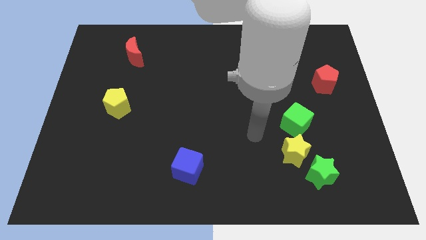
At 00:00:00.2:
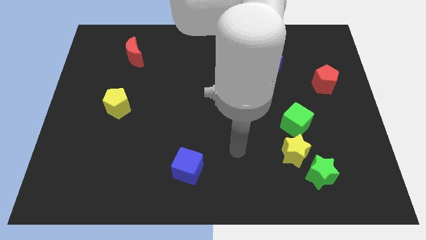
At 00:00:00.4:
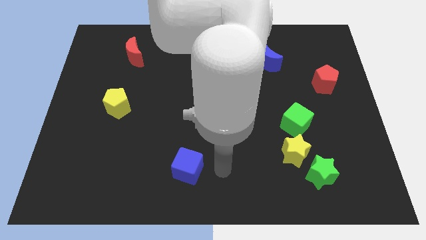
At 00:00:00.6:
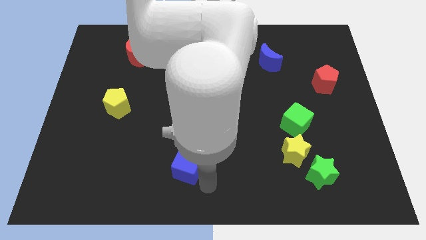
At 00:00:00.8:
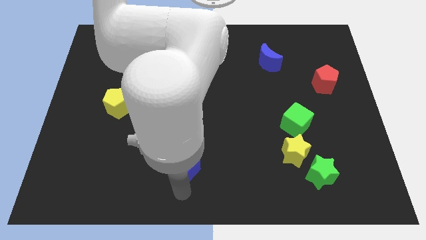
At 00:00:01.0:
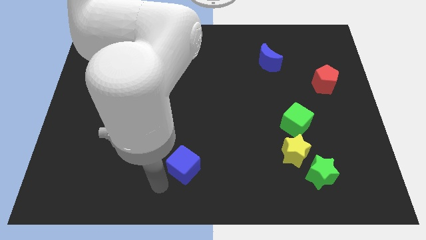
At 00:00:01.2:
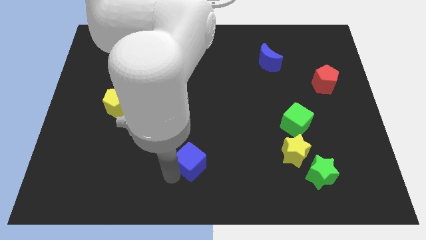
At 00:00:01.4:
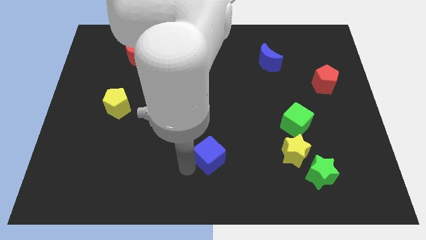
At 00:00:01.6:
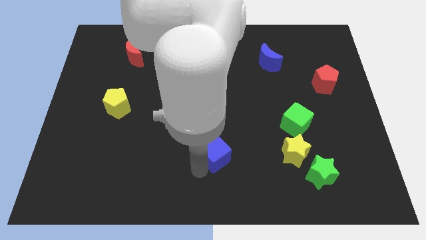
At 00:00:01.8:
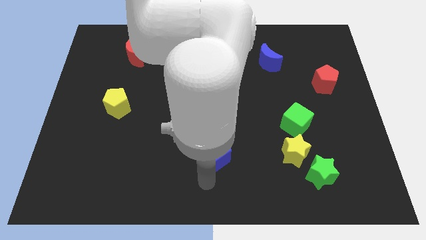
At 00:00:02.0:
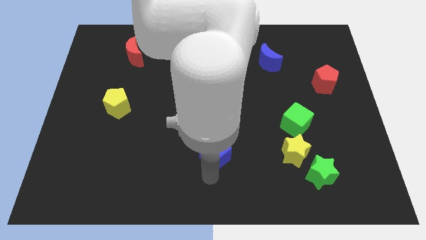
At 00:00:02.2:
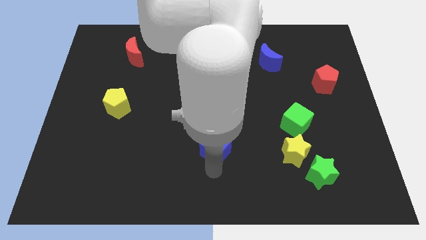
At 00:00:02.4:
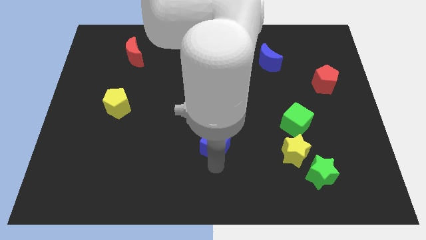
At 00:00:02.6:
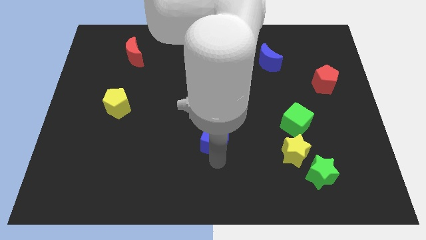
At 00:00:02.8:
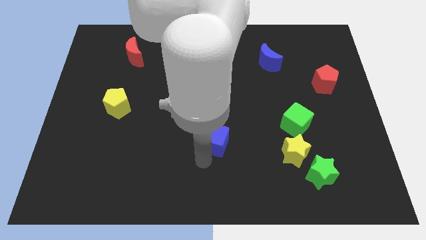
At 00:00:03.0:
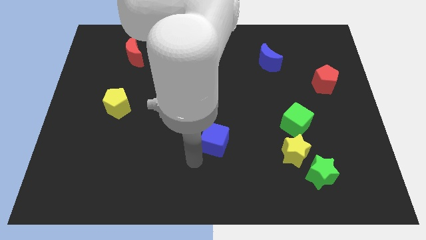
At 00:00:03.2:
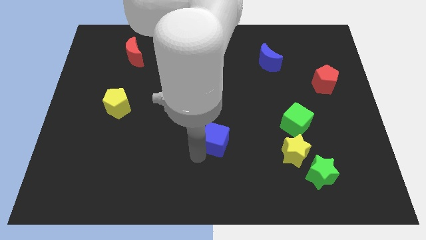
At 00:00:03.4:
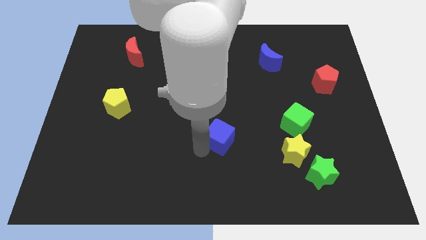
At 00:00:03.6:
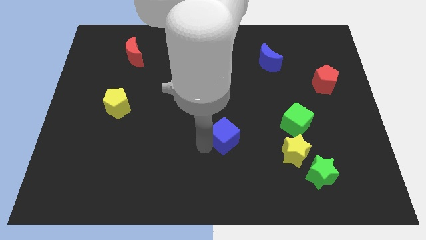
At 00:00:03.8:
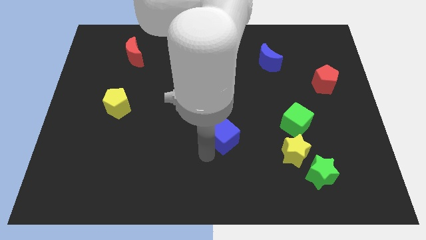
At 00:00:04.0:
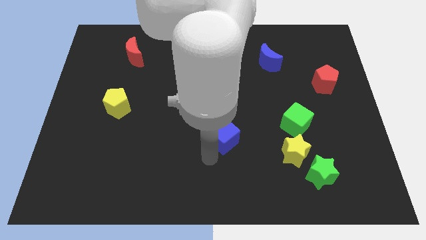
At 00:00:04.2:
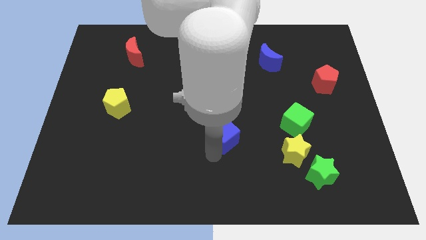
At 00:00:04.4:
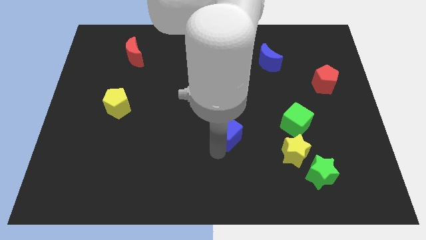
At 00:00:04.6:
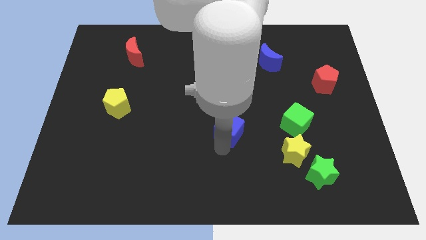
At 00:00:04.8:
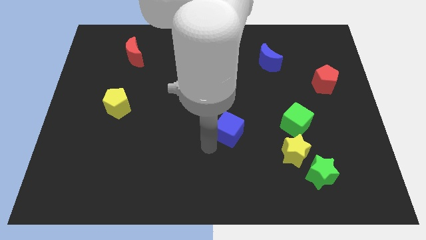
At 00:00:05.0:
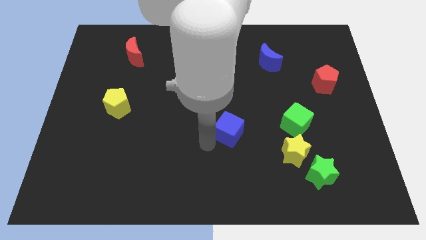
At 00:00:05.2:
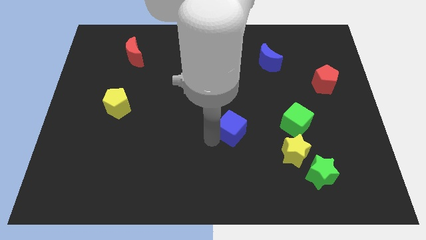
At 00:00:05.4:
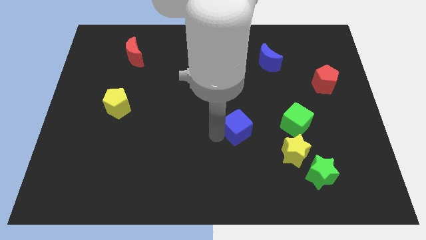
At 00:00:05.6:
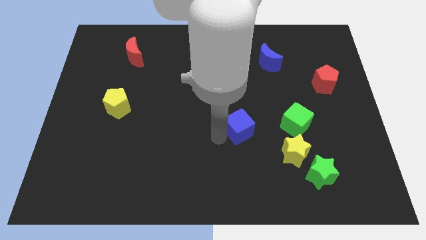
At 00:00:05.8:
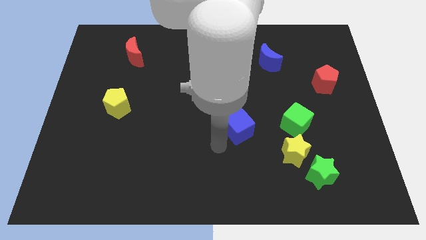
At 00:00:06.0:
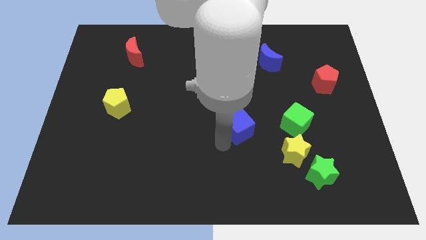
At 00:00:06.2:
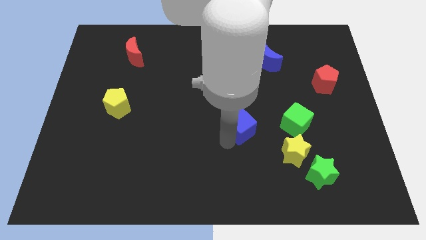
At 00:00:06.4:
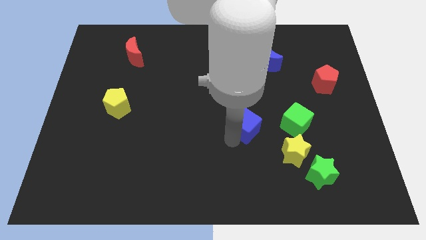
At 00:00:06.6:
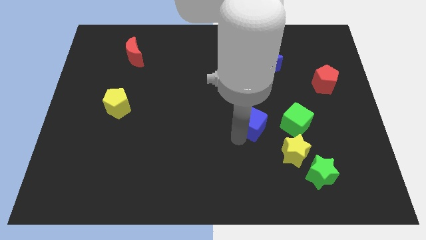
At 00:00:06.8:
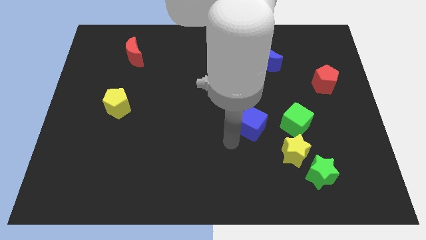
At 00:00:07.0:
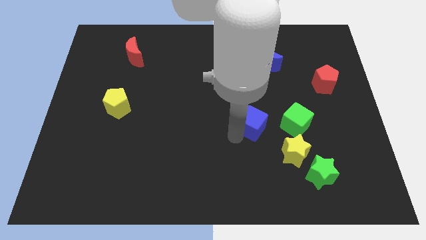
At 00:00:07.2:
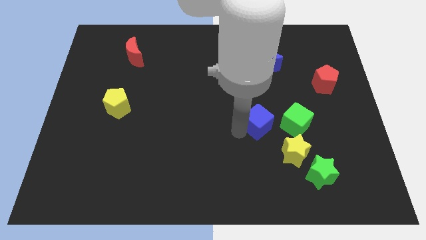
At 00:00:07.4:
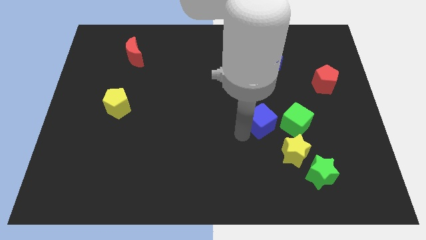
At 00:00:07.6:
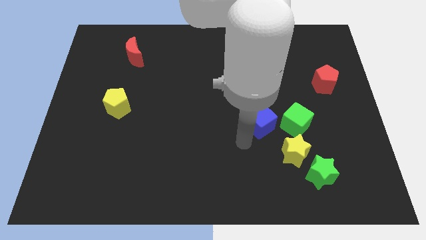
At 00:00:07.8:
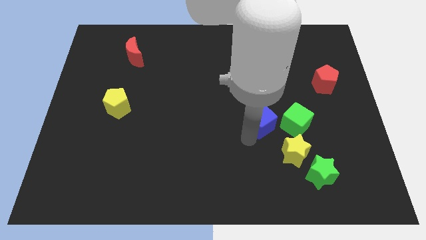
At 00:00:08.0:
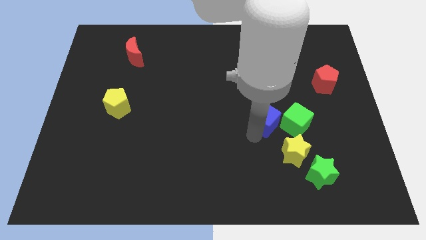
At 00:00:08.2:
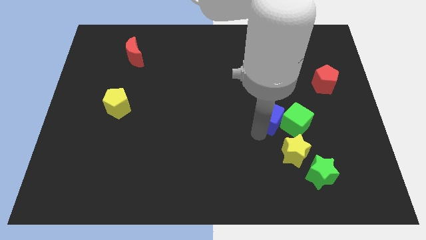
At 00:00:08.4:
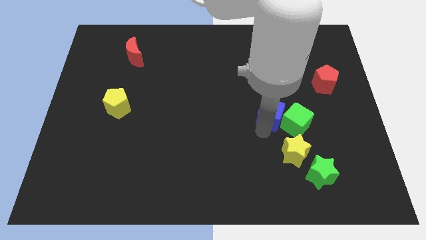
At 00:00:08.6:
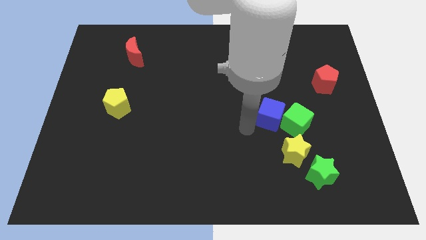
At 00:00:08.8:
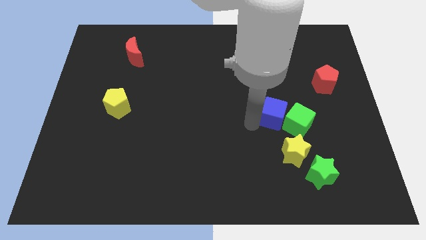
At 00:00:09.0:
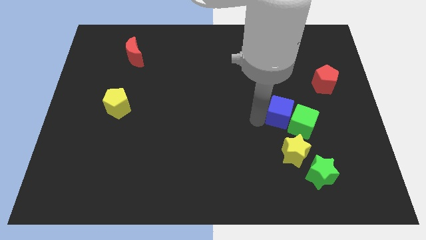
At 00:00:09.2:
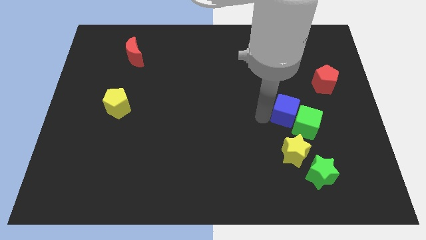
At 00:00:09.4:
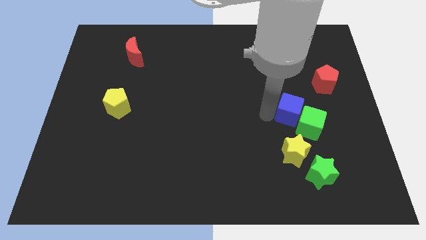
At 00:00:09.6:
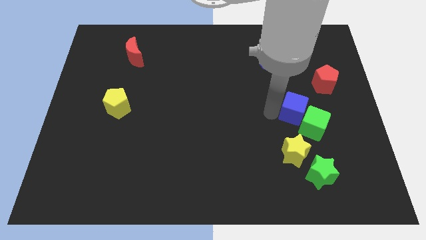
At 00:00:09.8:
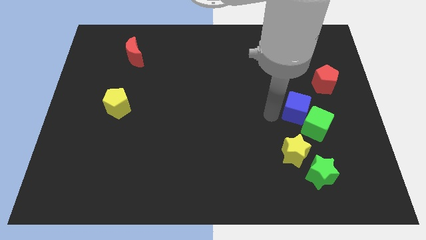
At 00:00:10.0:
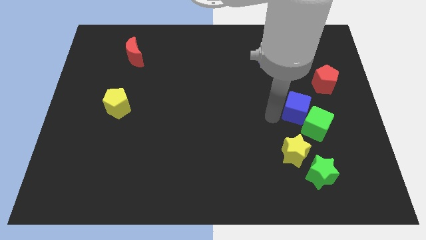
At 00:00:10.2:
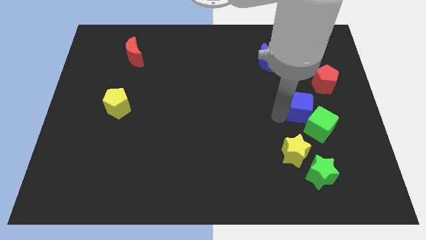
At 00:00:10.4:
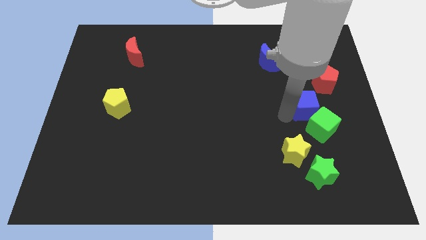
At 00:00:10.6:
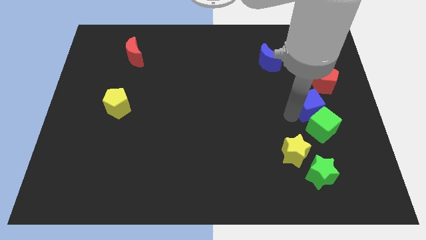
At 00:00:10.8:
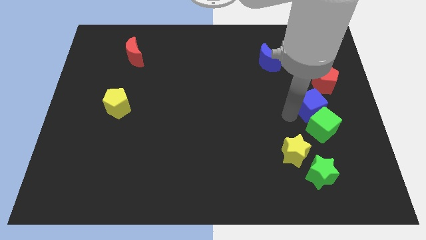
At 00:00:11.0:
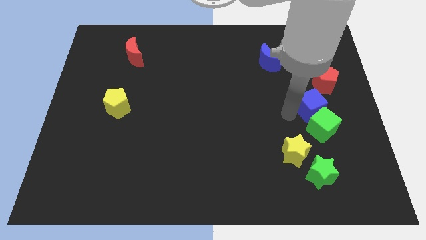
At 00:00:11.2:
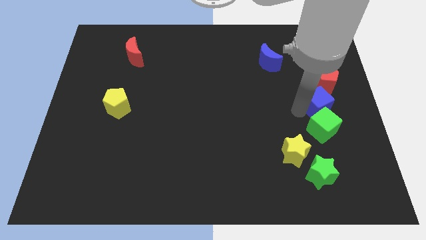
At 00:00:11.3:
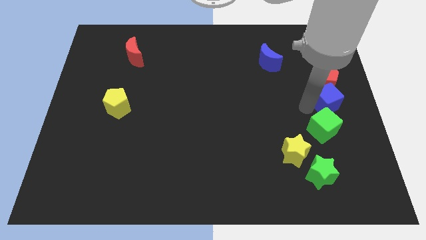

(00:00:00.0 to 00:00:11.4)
push the blue cube to the right side of the board

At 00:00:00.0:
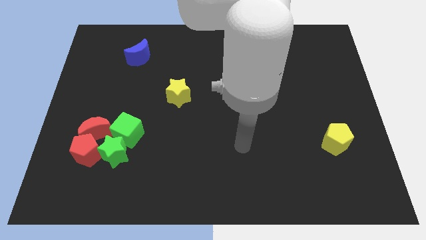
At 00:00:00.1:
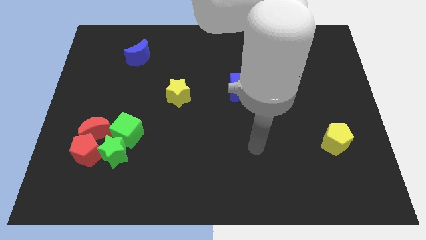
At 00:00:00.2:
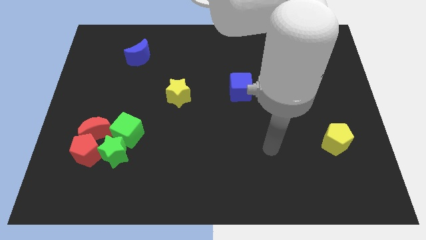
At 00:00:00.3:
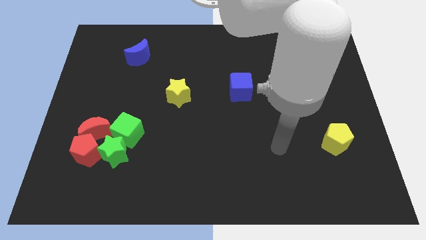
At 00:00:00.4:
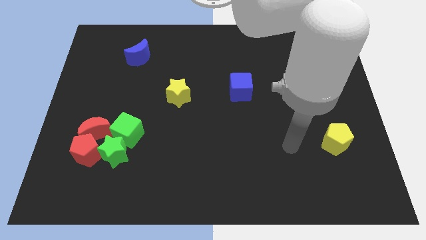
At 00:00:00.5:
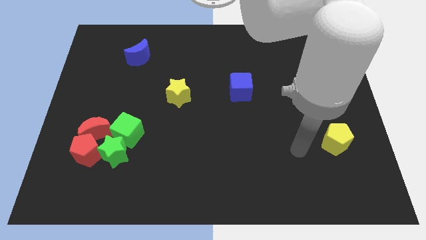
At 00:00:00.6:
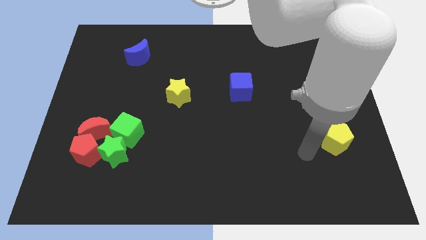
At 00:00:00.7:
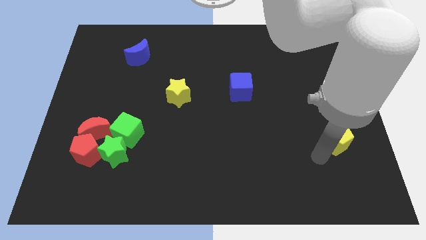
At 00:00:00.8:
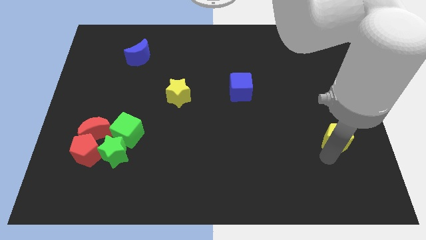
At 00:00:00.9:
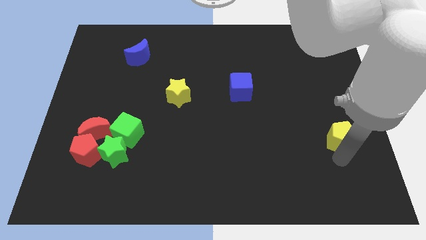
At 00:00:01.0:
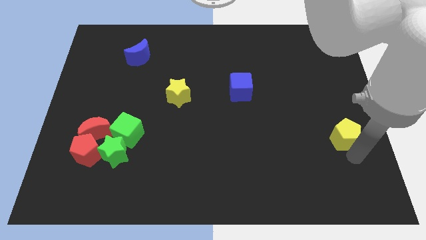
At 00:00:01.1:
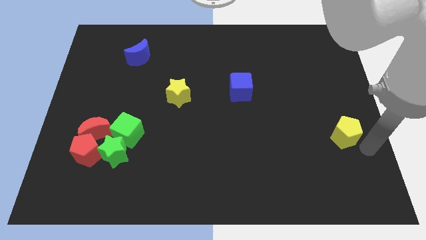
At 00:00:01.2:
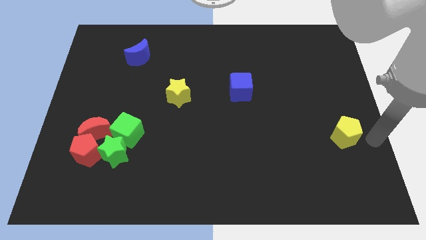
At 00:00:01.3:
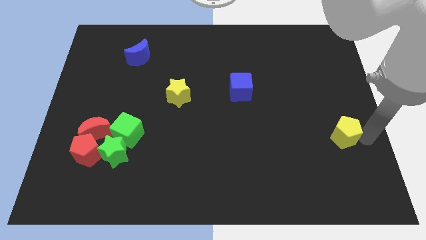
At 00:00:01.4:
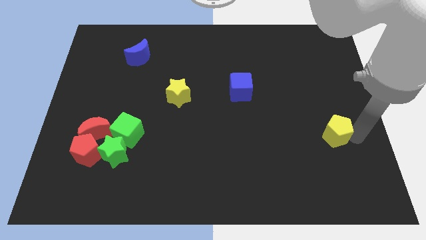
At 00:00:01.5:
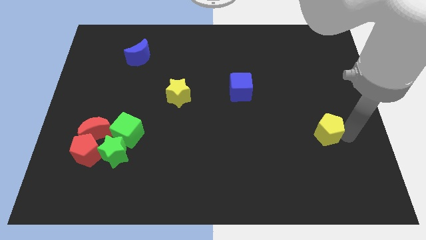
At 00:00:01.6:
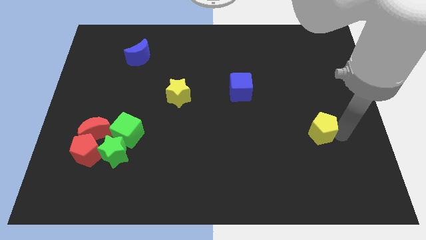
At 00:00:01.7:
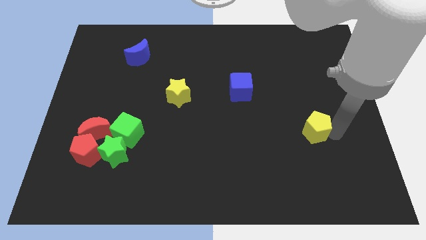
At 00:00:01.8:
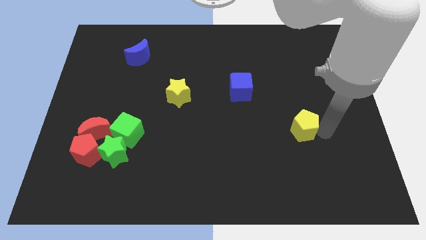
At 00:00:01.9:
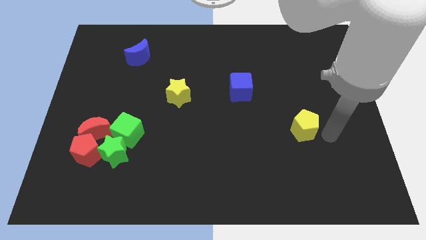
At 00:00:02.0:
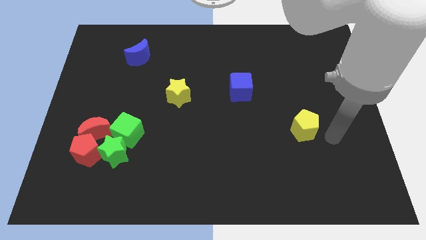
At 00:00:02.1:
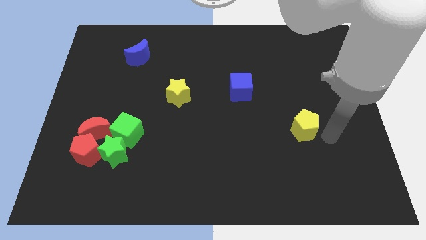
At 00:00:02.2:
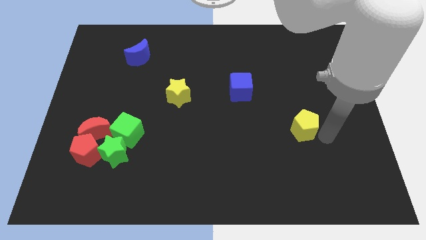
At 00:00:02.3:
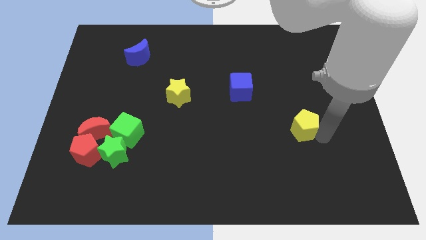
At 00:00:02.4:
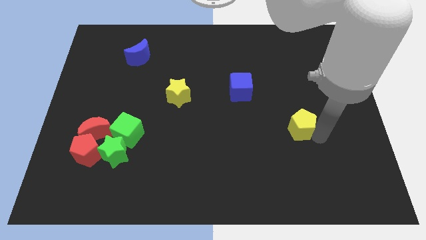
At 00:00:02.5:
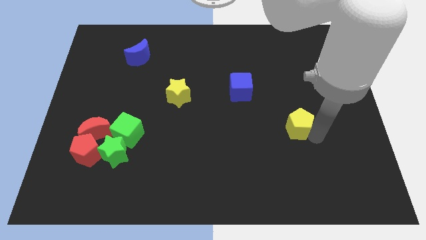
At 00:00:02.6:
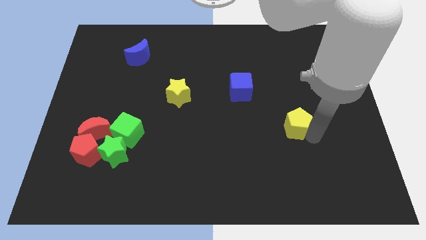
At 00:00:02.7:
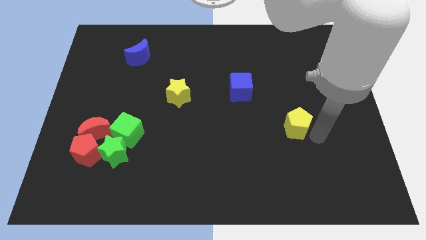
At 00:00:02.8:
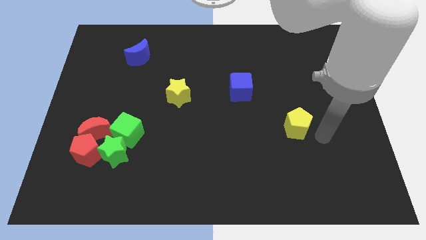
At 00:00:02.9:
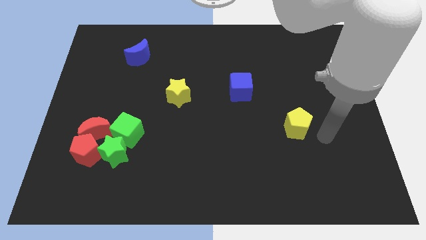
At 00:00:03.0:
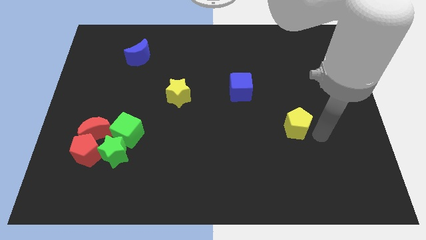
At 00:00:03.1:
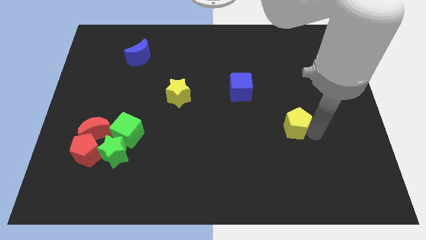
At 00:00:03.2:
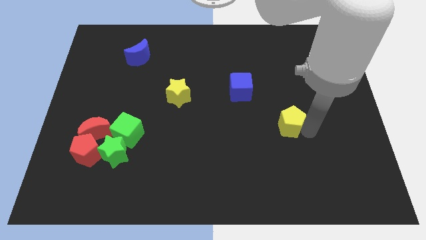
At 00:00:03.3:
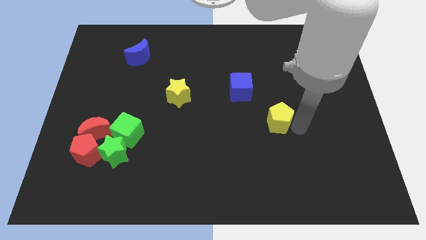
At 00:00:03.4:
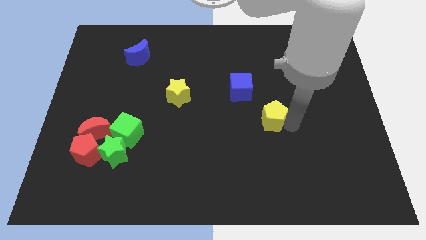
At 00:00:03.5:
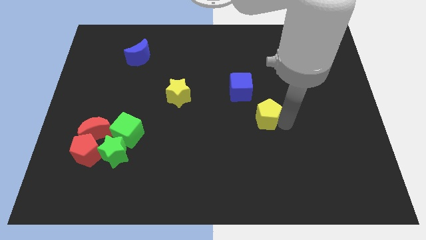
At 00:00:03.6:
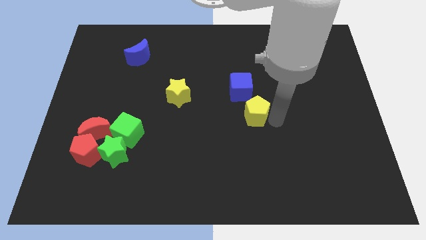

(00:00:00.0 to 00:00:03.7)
put the yellow pentagon to the center
